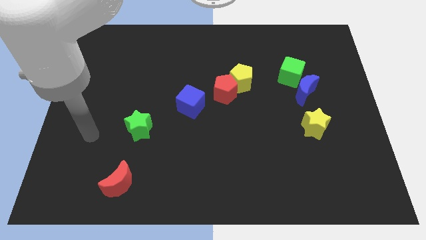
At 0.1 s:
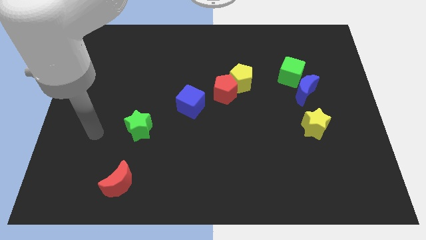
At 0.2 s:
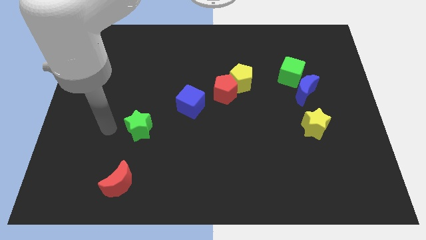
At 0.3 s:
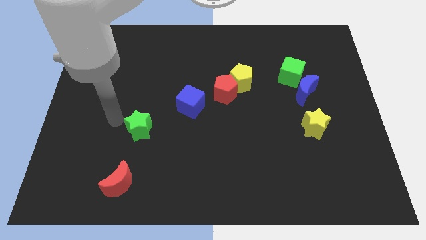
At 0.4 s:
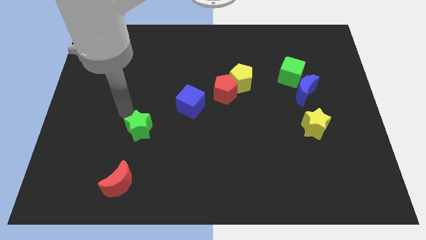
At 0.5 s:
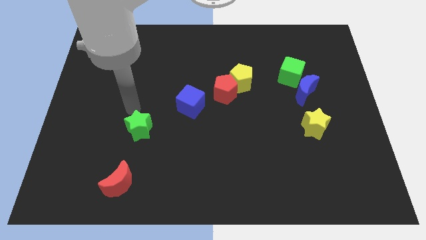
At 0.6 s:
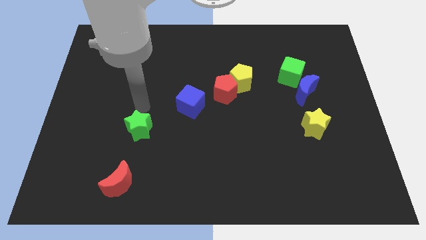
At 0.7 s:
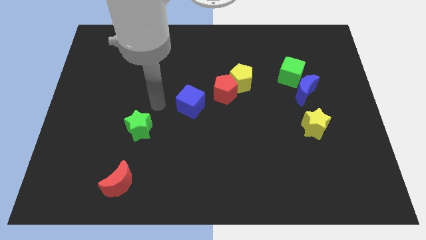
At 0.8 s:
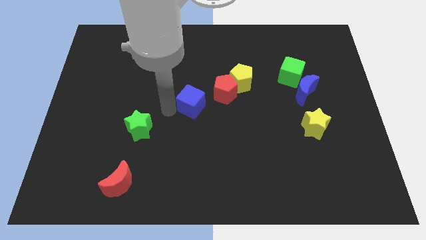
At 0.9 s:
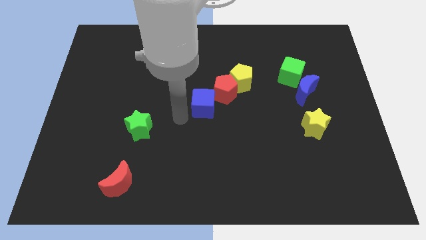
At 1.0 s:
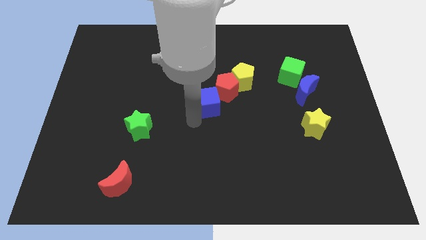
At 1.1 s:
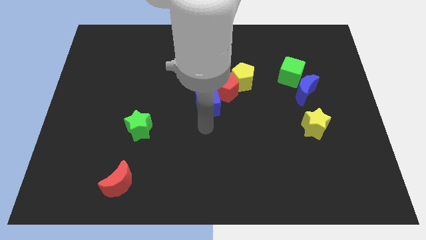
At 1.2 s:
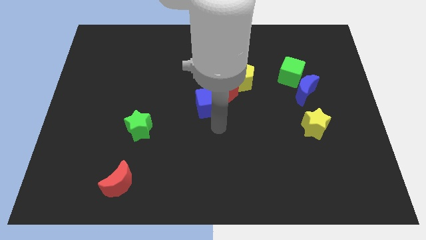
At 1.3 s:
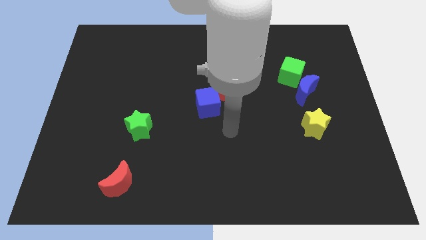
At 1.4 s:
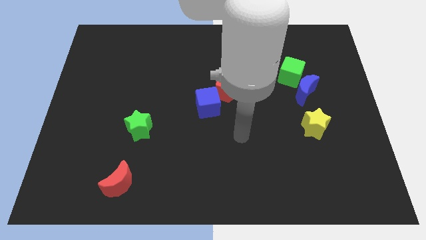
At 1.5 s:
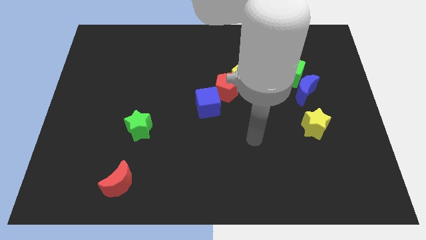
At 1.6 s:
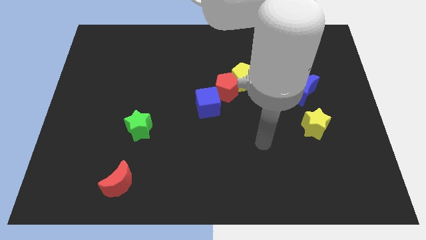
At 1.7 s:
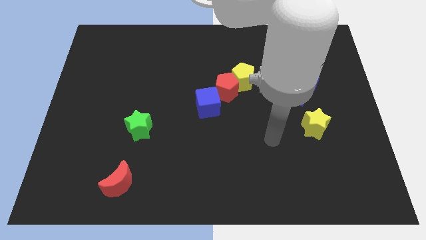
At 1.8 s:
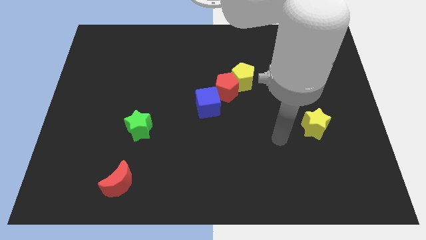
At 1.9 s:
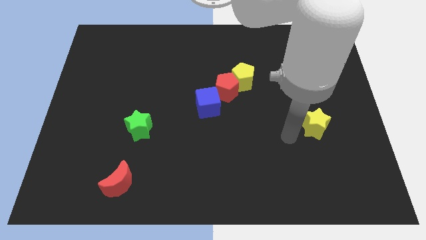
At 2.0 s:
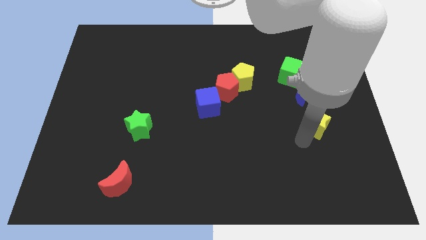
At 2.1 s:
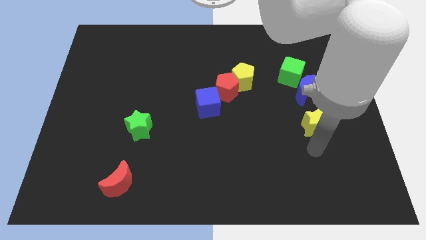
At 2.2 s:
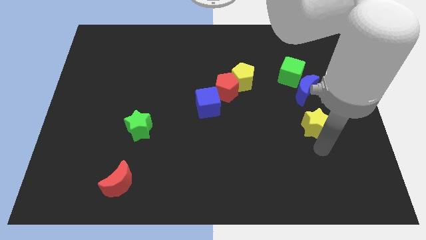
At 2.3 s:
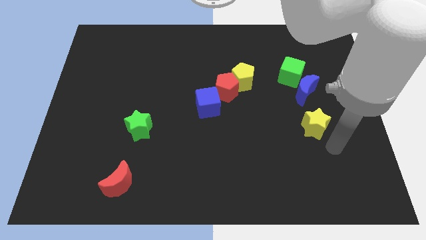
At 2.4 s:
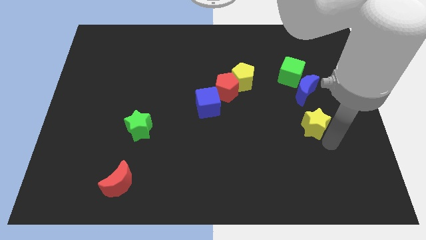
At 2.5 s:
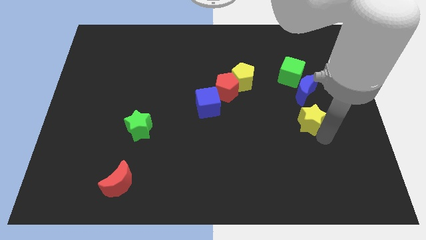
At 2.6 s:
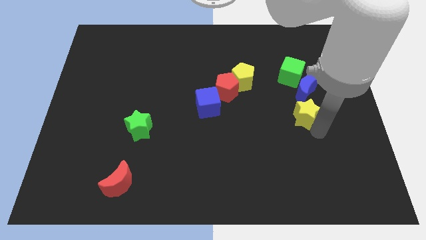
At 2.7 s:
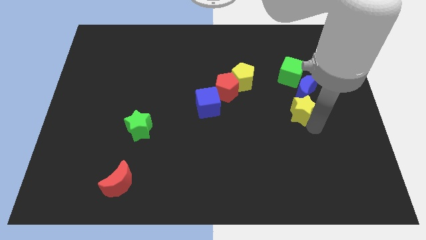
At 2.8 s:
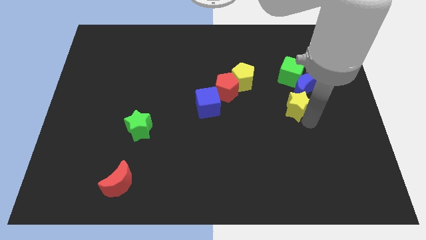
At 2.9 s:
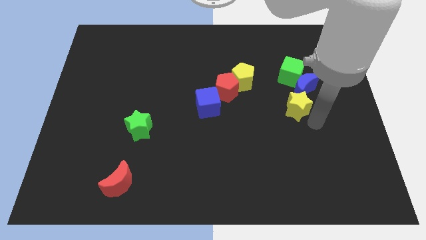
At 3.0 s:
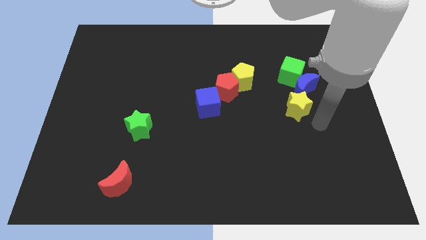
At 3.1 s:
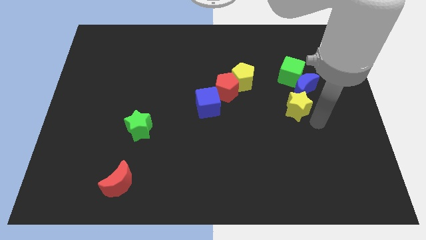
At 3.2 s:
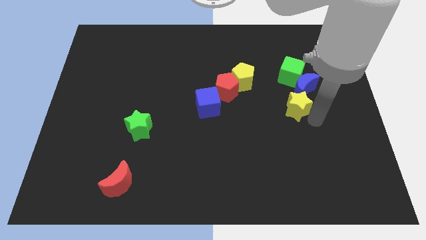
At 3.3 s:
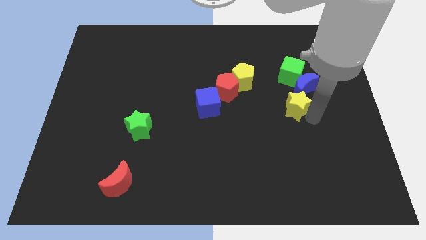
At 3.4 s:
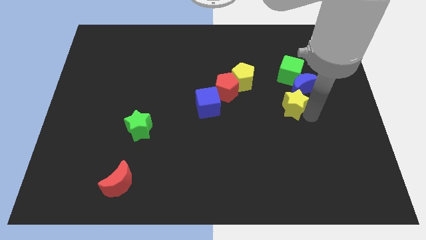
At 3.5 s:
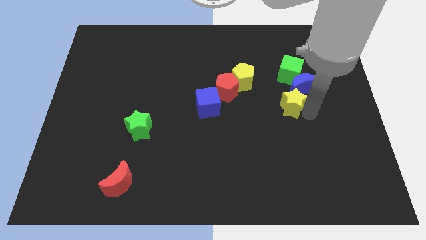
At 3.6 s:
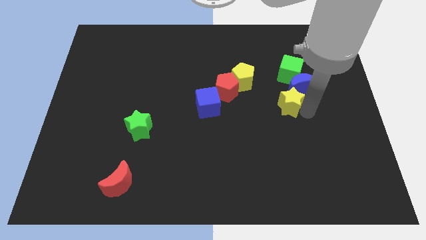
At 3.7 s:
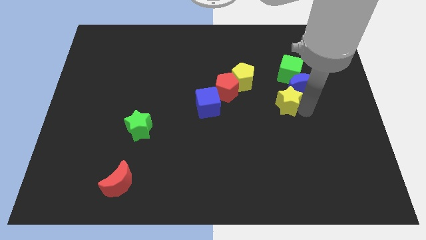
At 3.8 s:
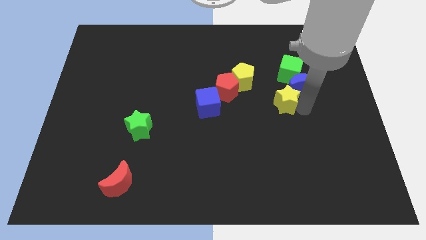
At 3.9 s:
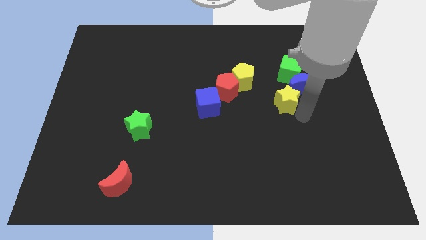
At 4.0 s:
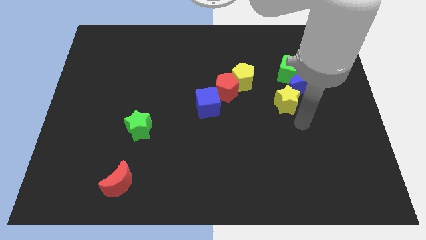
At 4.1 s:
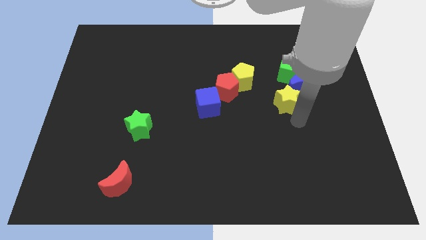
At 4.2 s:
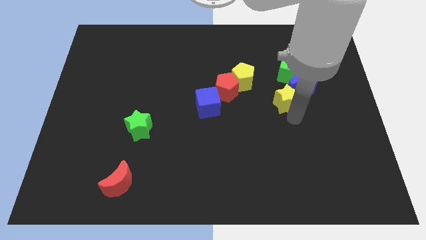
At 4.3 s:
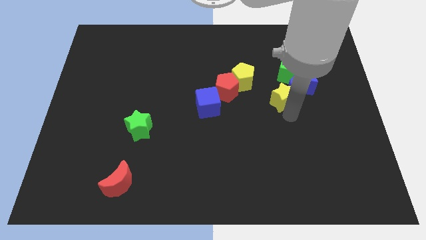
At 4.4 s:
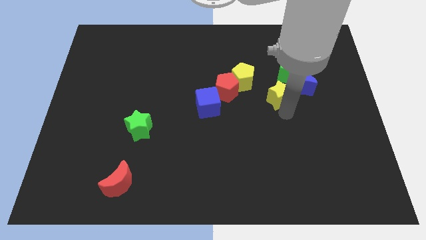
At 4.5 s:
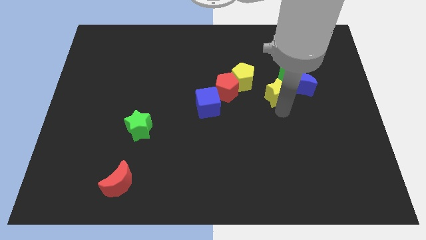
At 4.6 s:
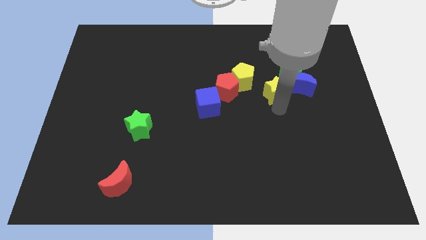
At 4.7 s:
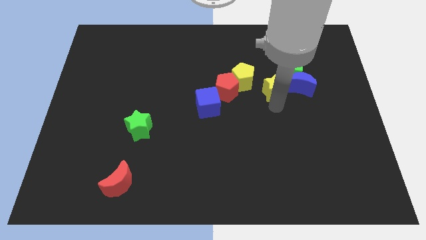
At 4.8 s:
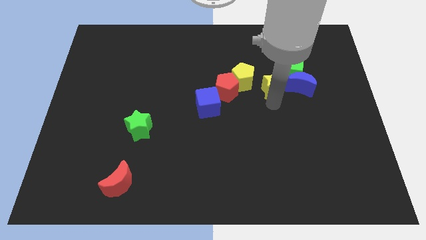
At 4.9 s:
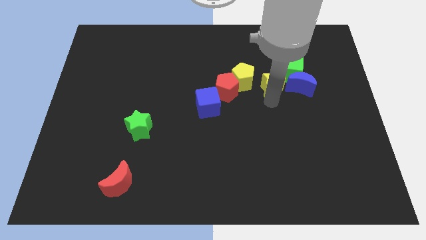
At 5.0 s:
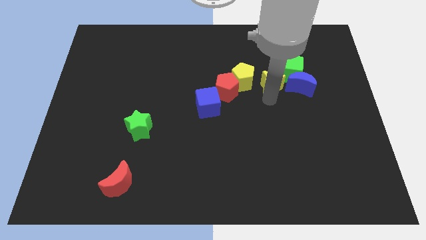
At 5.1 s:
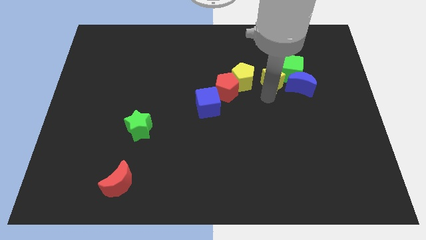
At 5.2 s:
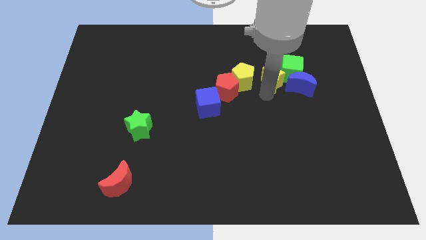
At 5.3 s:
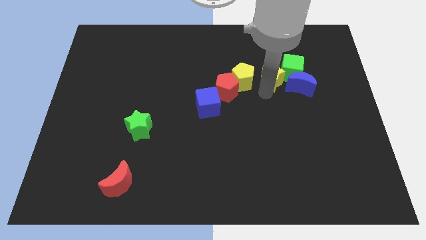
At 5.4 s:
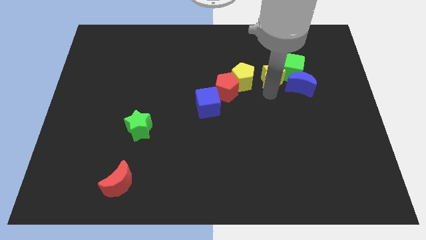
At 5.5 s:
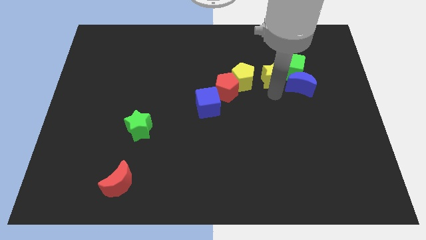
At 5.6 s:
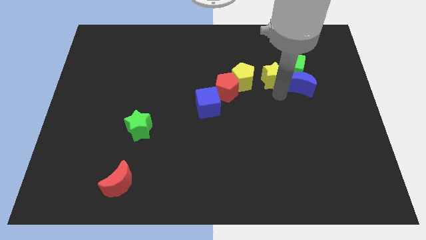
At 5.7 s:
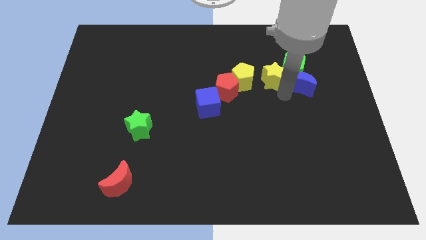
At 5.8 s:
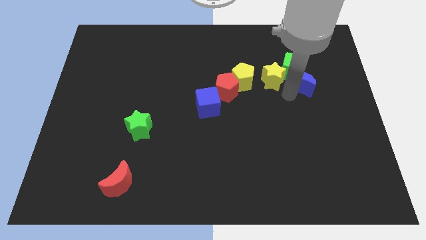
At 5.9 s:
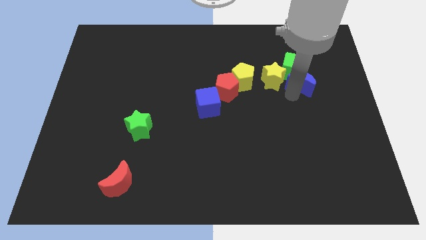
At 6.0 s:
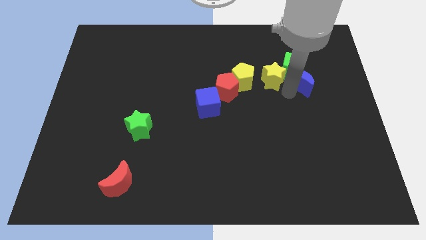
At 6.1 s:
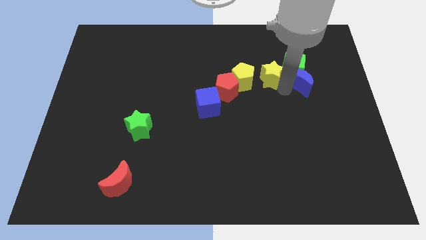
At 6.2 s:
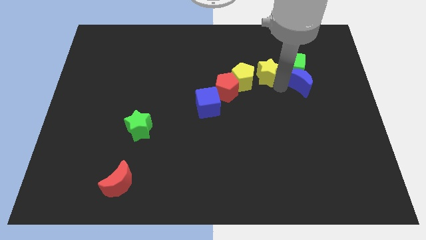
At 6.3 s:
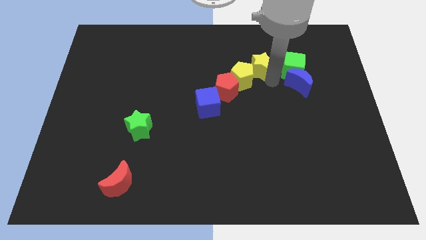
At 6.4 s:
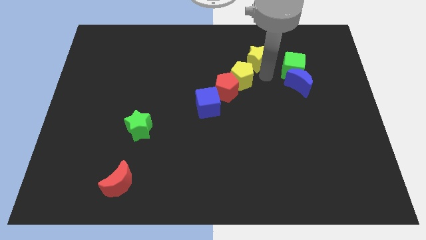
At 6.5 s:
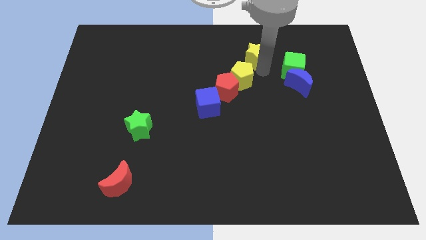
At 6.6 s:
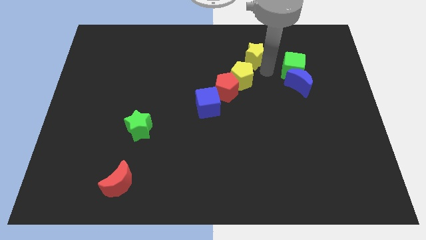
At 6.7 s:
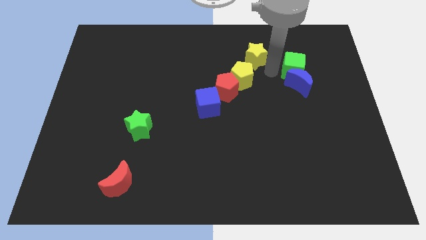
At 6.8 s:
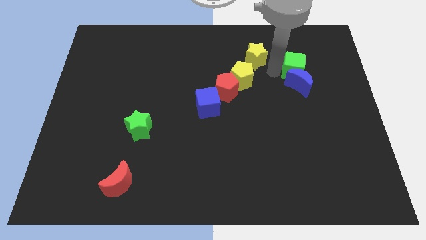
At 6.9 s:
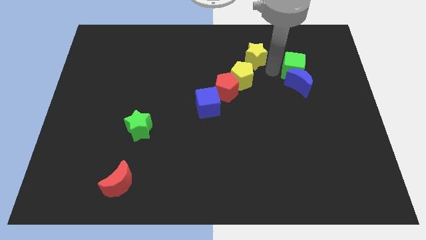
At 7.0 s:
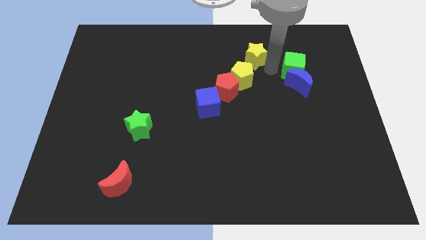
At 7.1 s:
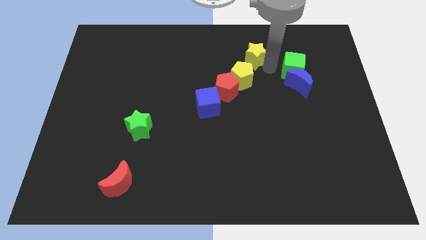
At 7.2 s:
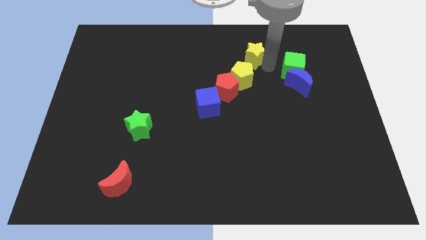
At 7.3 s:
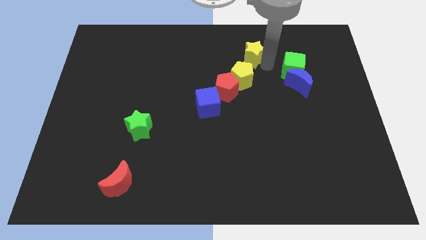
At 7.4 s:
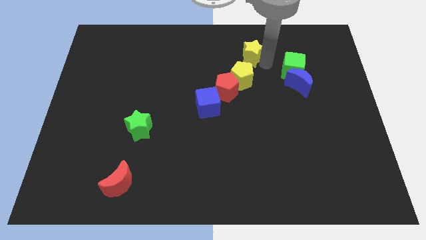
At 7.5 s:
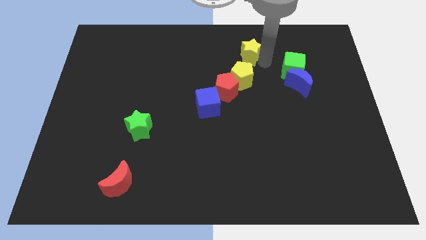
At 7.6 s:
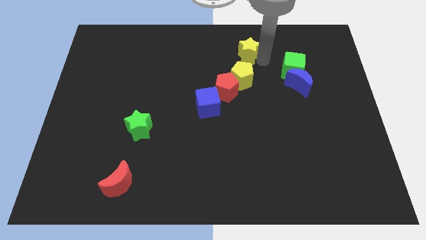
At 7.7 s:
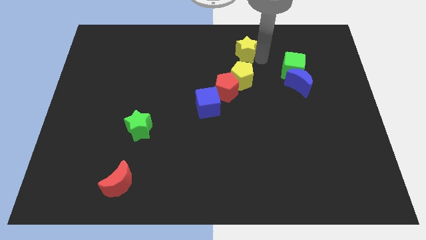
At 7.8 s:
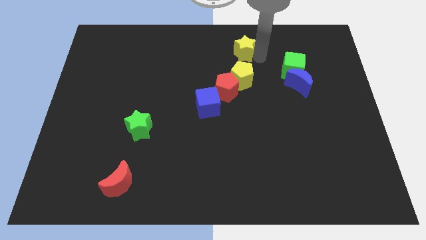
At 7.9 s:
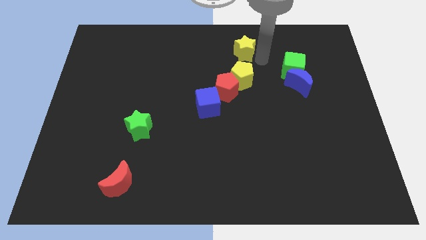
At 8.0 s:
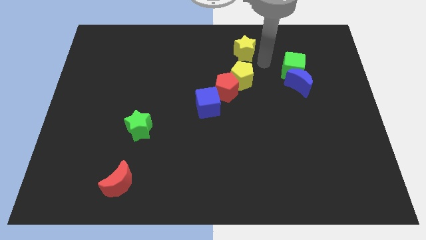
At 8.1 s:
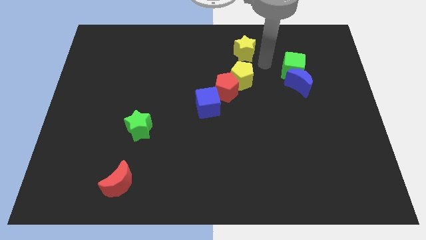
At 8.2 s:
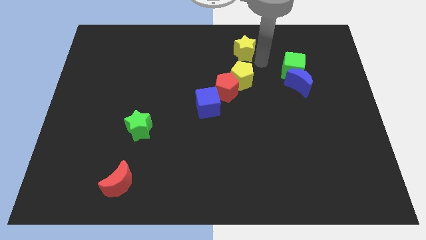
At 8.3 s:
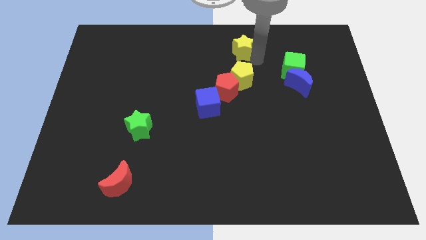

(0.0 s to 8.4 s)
slide the yellow star to the towards your base

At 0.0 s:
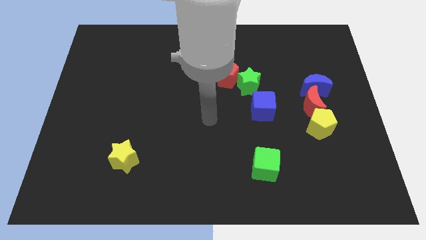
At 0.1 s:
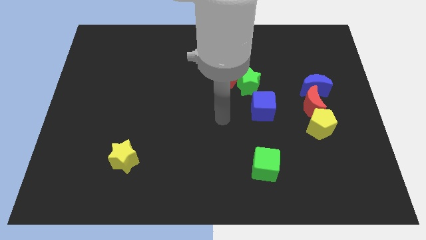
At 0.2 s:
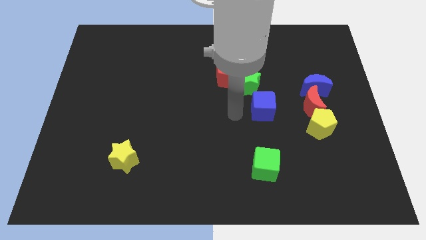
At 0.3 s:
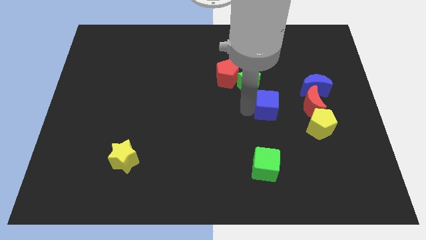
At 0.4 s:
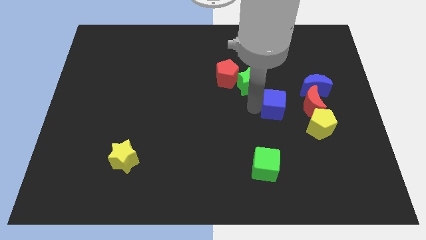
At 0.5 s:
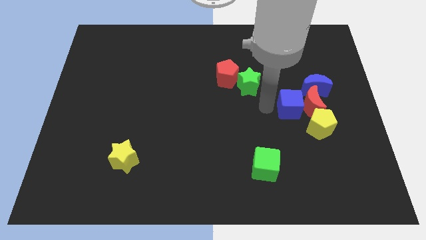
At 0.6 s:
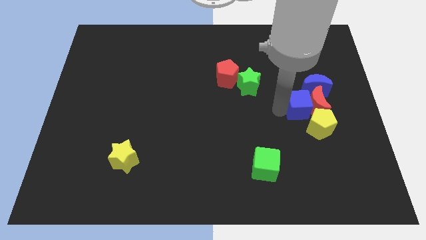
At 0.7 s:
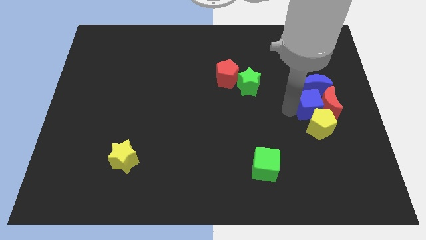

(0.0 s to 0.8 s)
slide the red moon to the center right
